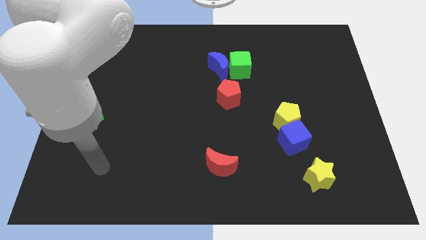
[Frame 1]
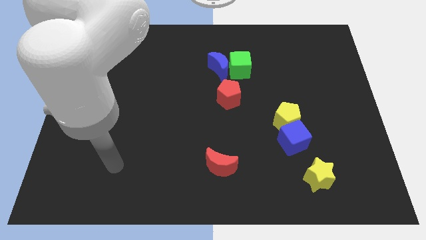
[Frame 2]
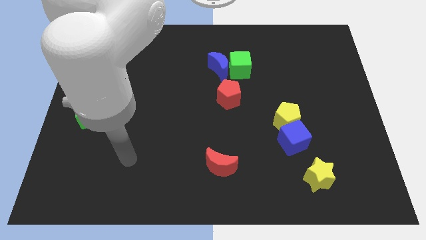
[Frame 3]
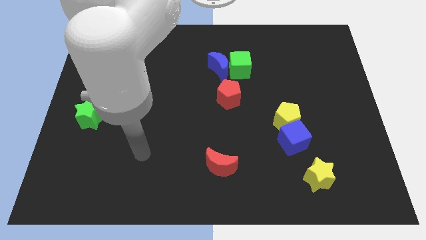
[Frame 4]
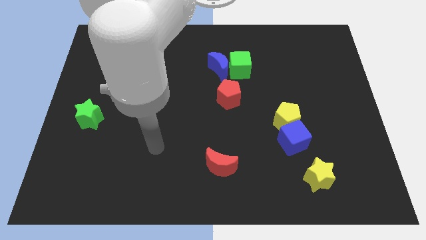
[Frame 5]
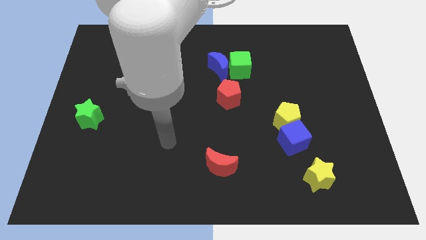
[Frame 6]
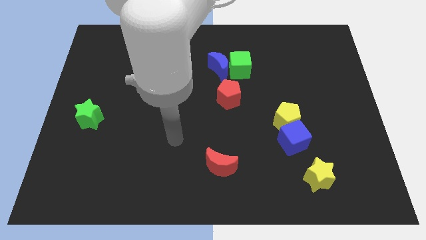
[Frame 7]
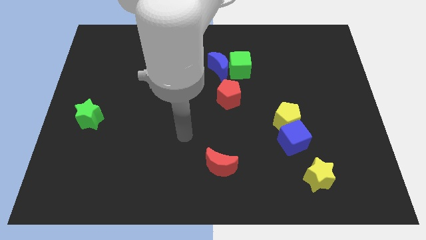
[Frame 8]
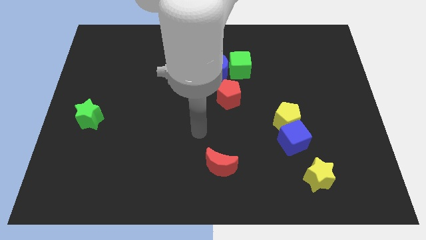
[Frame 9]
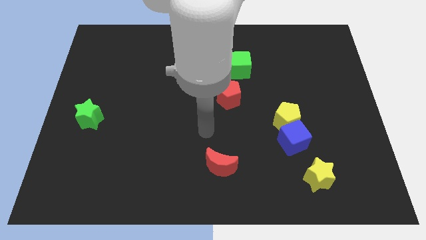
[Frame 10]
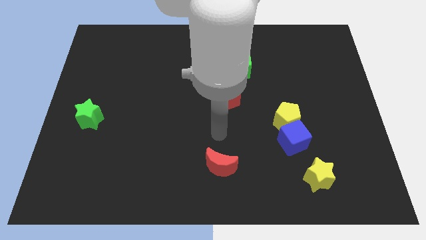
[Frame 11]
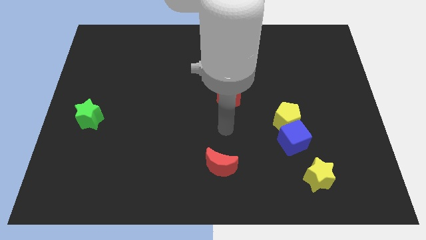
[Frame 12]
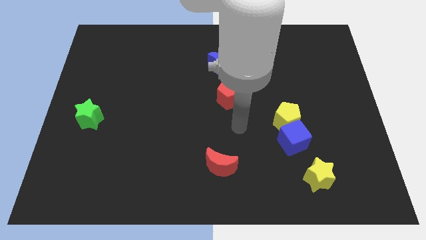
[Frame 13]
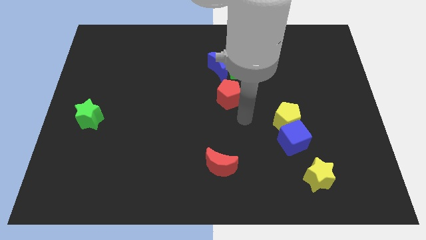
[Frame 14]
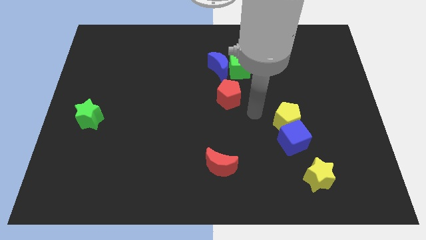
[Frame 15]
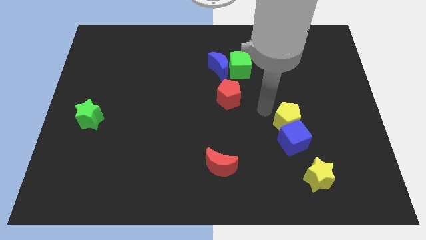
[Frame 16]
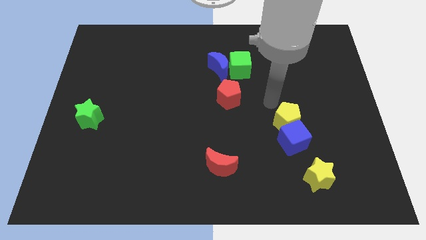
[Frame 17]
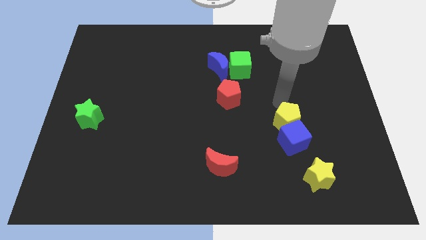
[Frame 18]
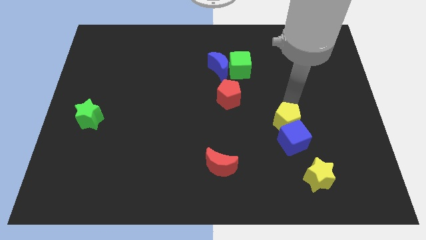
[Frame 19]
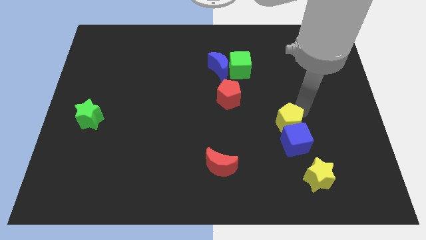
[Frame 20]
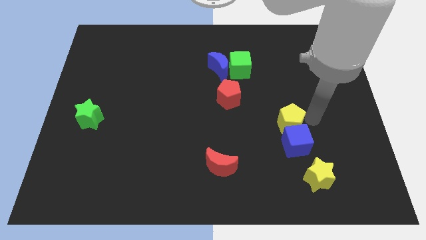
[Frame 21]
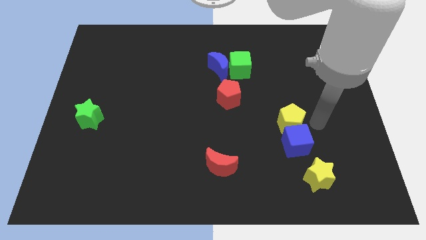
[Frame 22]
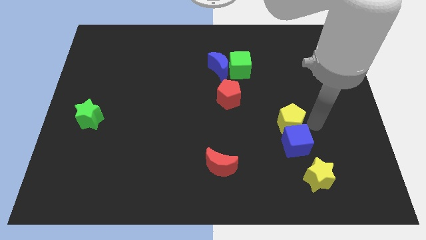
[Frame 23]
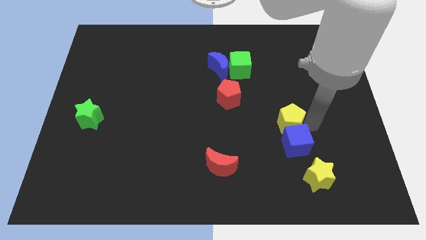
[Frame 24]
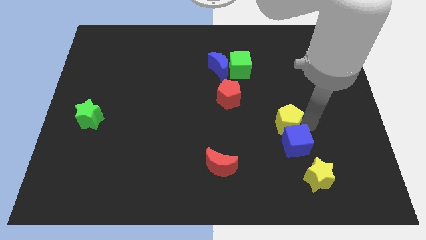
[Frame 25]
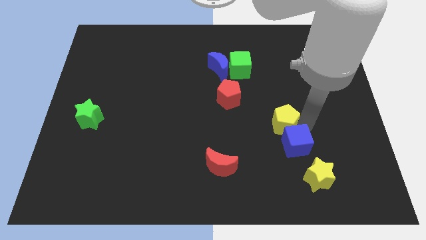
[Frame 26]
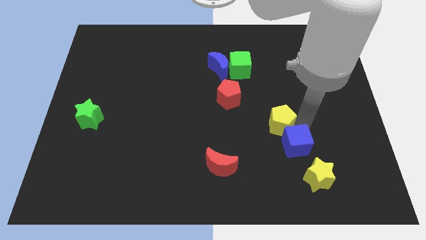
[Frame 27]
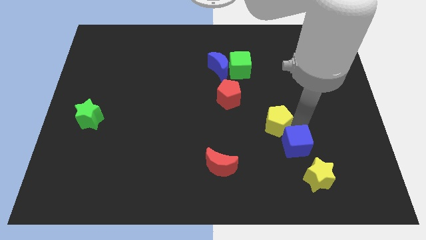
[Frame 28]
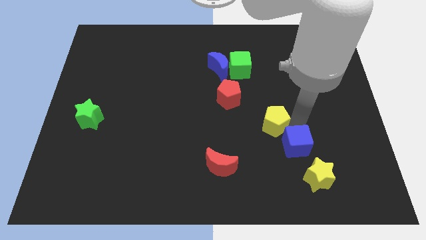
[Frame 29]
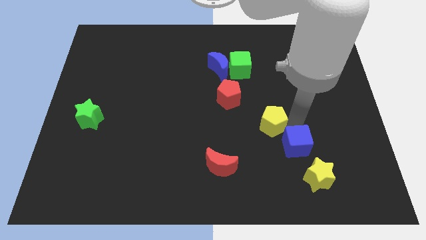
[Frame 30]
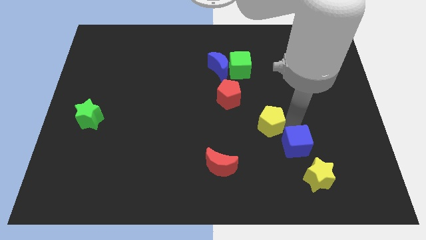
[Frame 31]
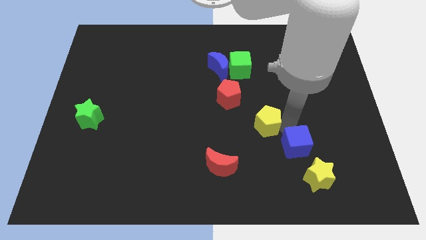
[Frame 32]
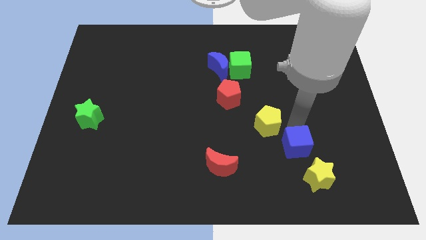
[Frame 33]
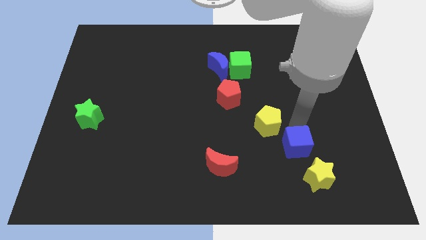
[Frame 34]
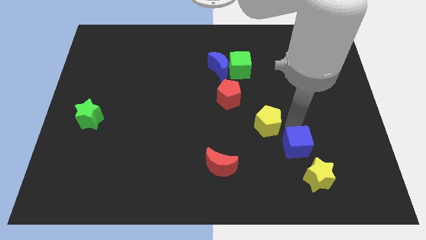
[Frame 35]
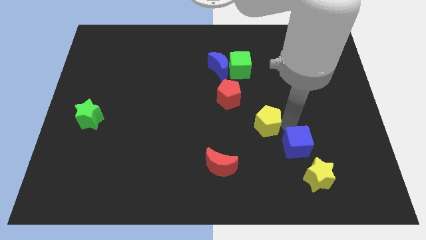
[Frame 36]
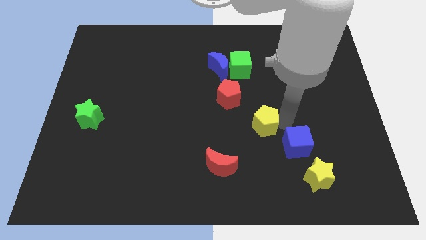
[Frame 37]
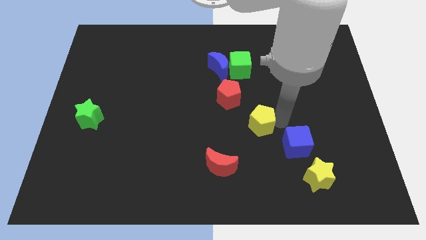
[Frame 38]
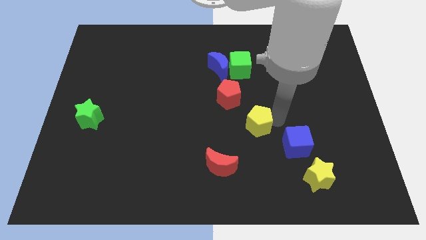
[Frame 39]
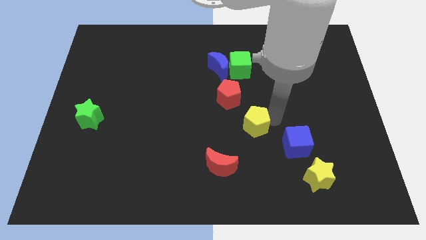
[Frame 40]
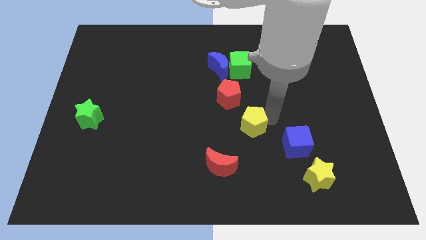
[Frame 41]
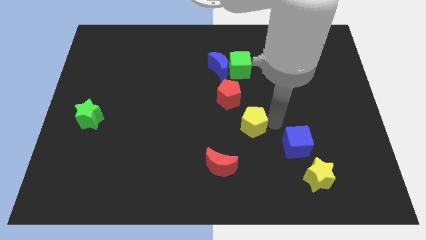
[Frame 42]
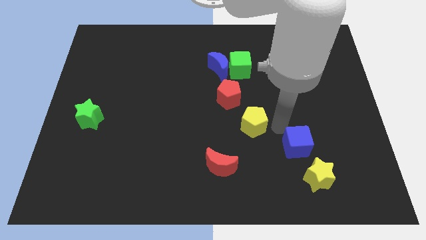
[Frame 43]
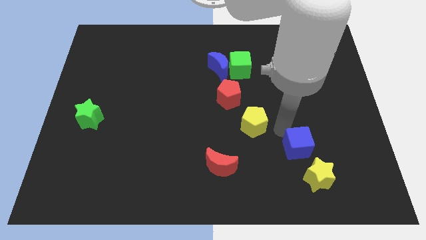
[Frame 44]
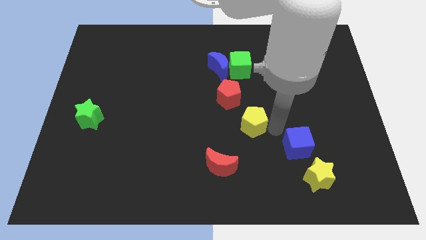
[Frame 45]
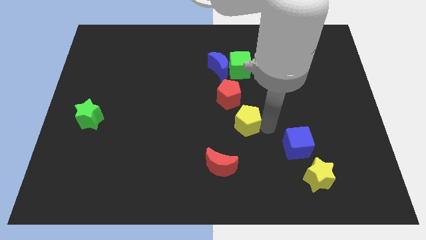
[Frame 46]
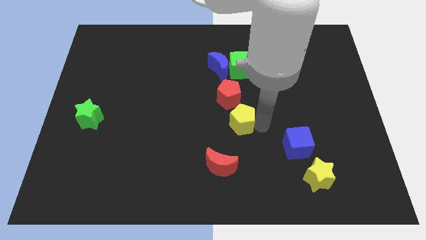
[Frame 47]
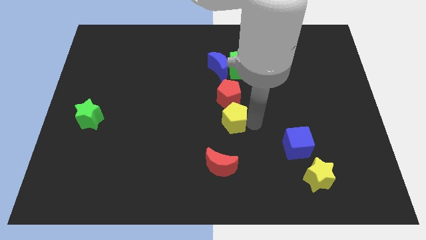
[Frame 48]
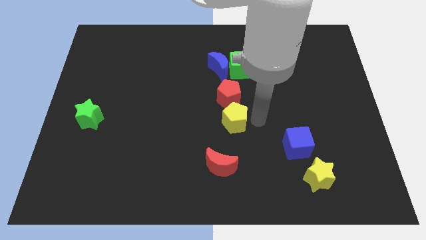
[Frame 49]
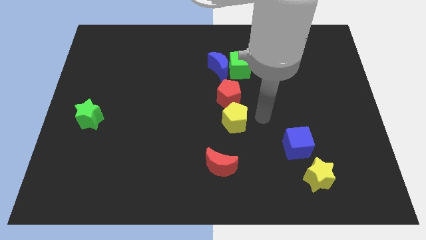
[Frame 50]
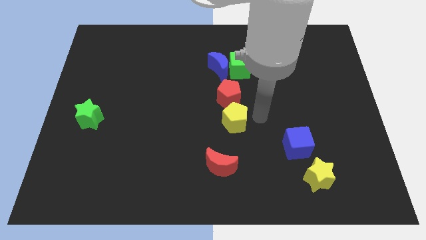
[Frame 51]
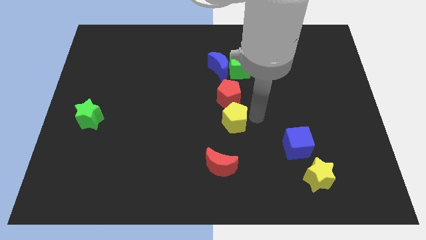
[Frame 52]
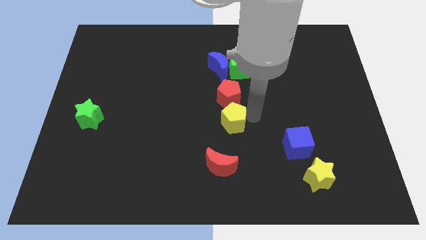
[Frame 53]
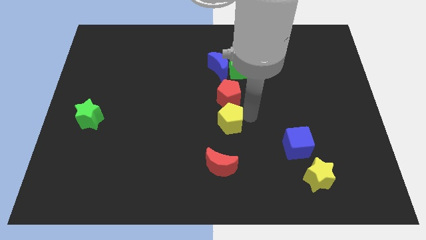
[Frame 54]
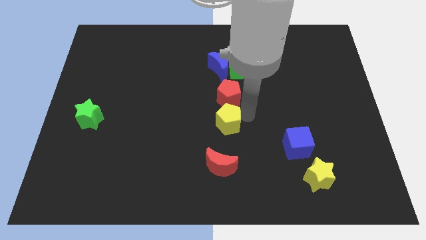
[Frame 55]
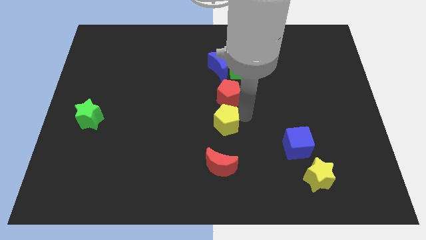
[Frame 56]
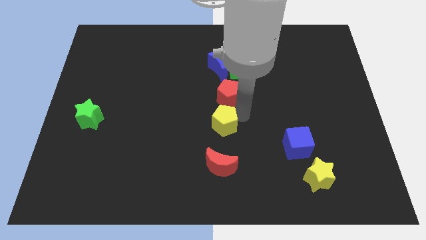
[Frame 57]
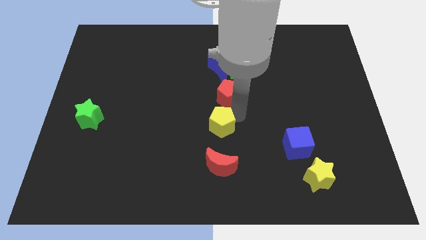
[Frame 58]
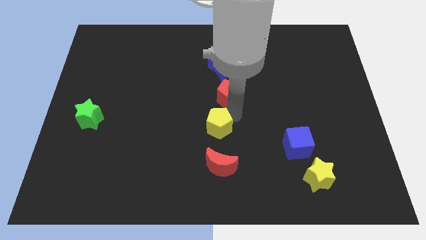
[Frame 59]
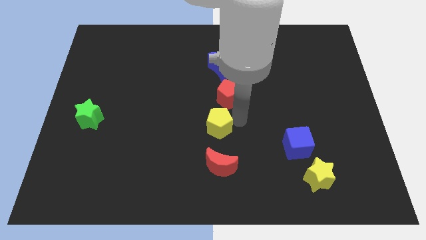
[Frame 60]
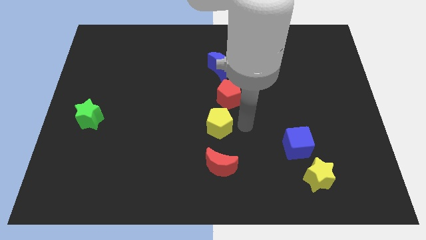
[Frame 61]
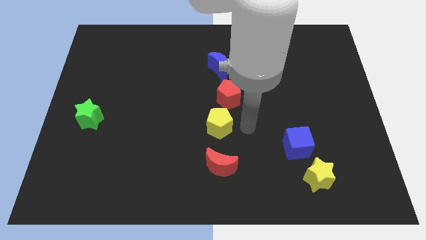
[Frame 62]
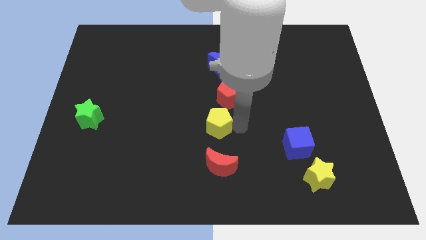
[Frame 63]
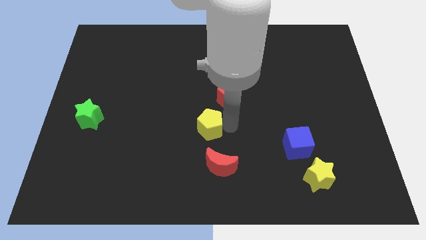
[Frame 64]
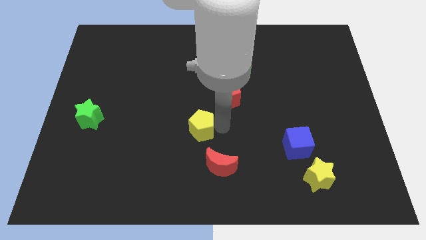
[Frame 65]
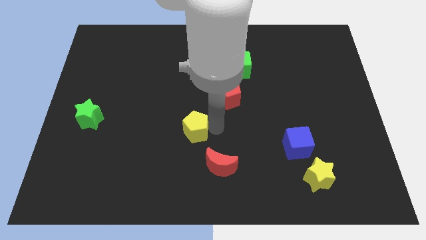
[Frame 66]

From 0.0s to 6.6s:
move the yellow pentagon to the left

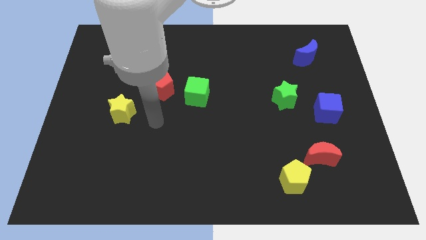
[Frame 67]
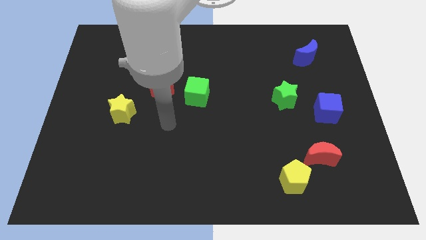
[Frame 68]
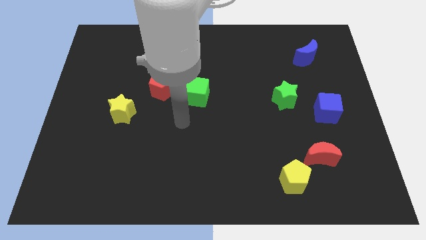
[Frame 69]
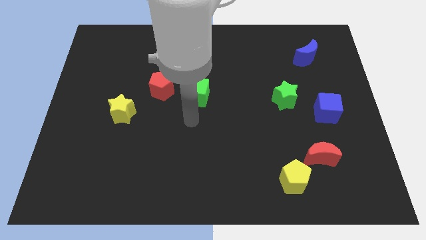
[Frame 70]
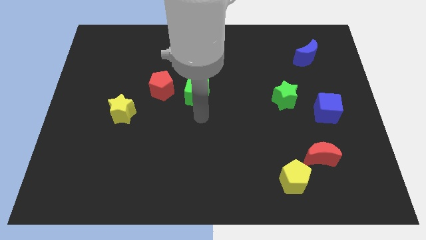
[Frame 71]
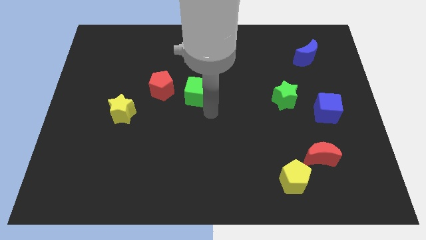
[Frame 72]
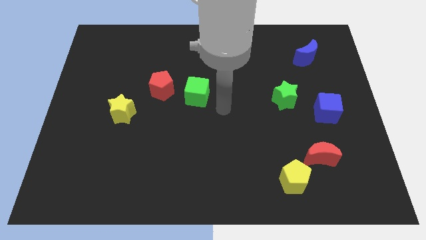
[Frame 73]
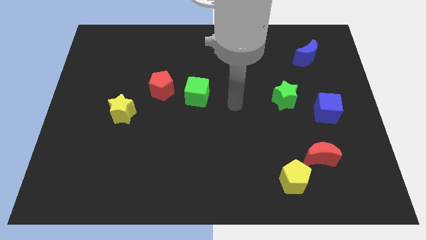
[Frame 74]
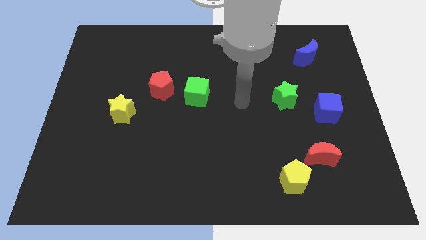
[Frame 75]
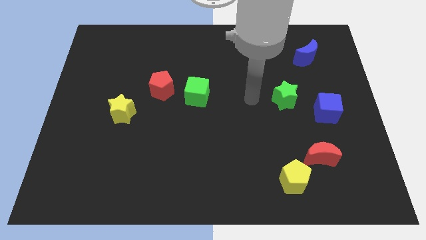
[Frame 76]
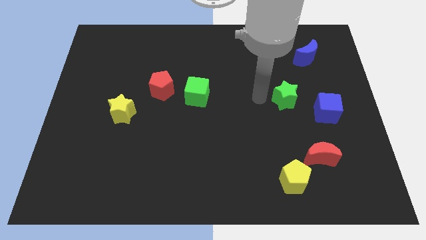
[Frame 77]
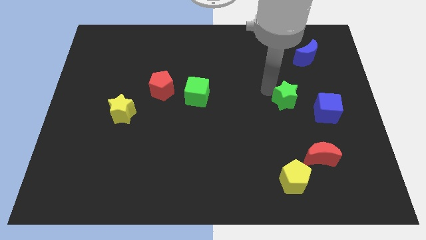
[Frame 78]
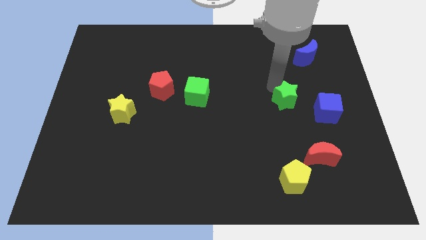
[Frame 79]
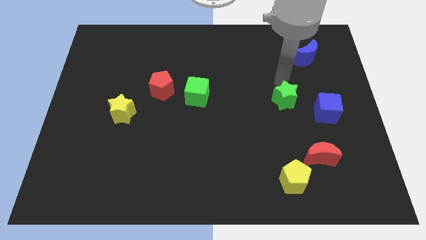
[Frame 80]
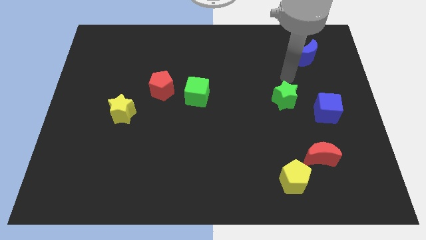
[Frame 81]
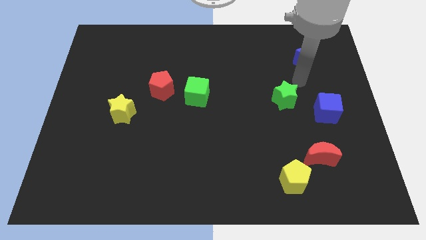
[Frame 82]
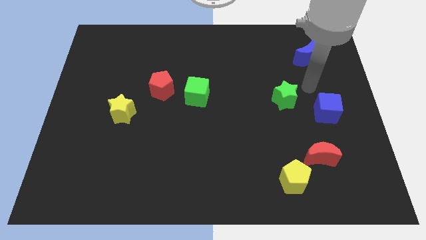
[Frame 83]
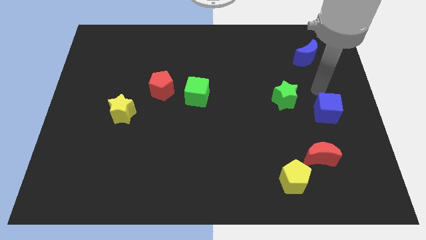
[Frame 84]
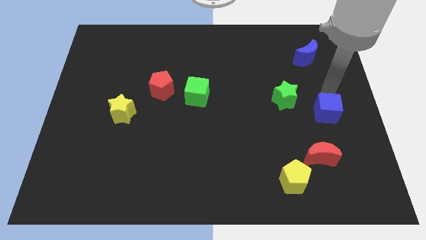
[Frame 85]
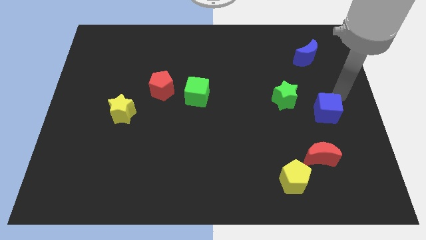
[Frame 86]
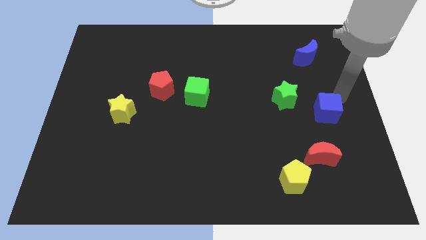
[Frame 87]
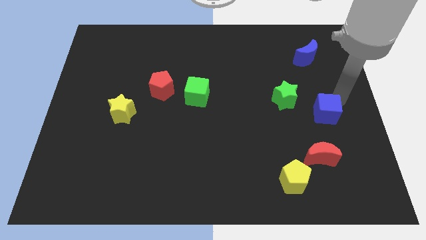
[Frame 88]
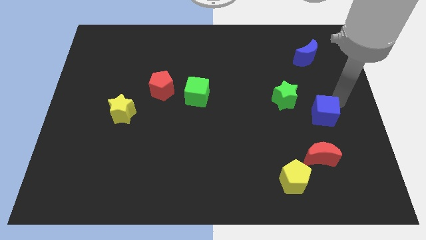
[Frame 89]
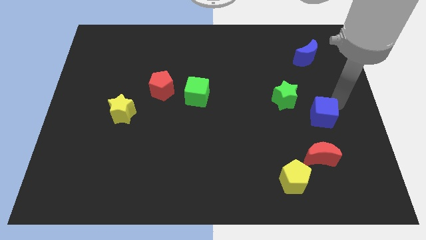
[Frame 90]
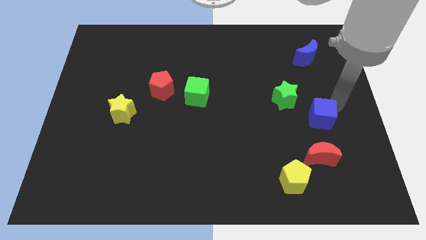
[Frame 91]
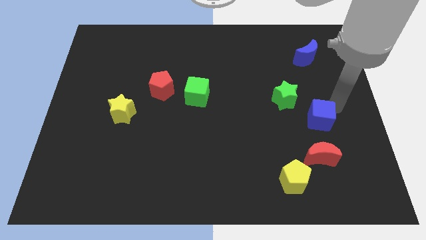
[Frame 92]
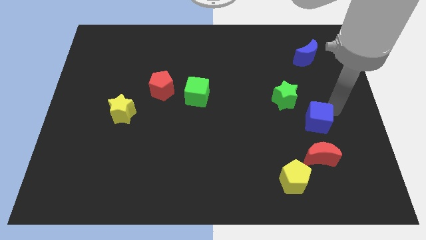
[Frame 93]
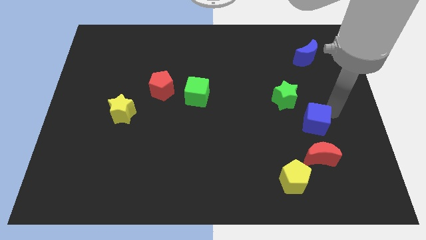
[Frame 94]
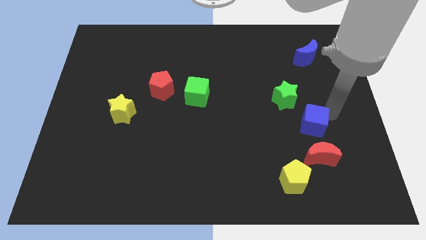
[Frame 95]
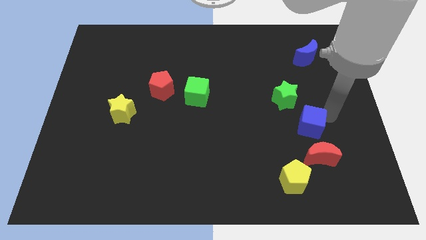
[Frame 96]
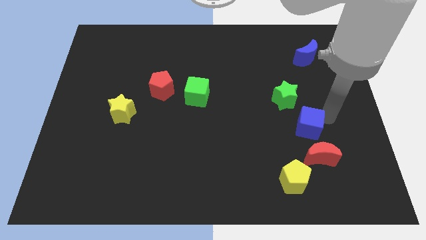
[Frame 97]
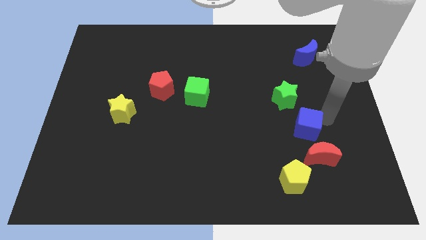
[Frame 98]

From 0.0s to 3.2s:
slightly move the blue cube downwards and left
